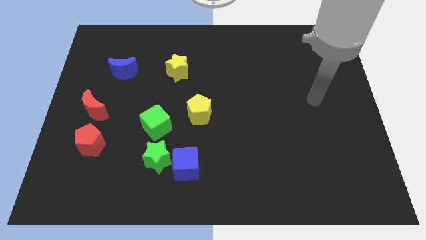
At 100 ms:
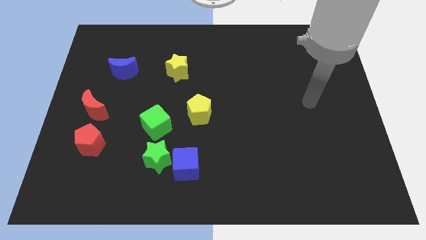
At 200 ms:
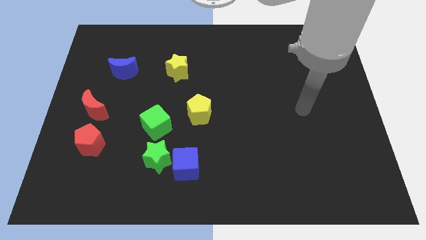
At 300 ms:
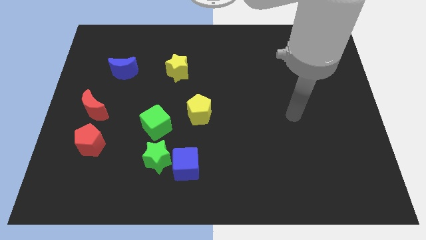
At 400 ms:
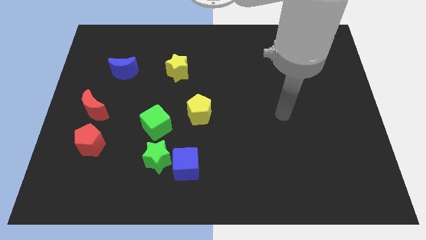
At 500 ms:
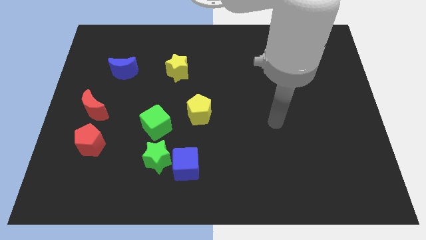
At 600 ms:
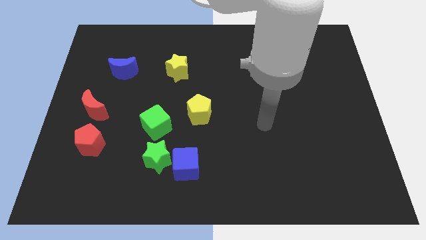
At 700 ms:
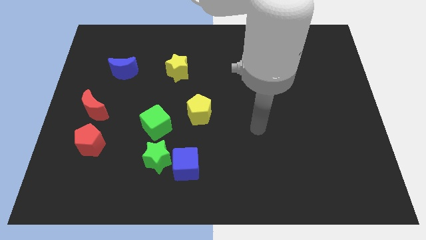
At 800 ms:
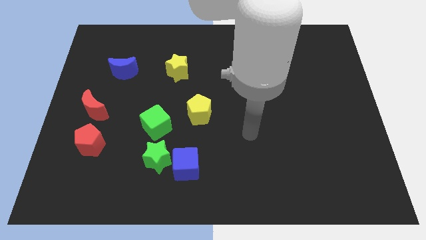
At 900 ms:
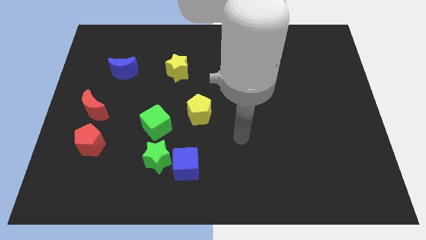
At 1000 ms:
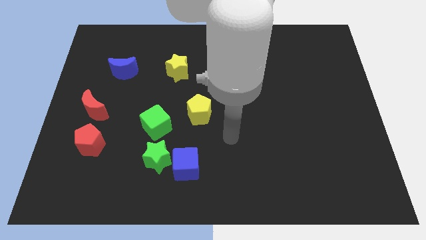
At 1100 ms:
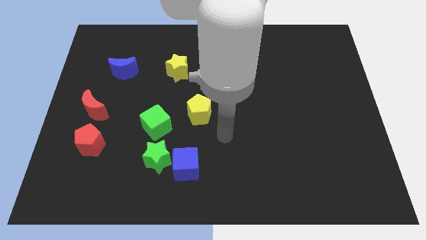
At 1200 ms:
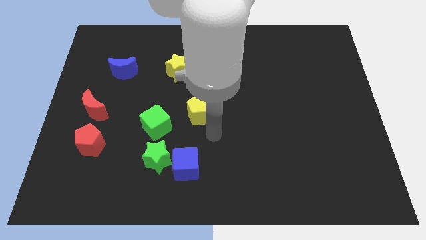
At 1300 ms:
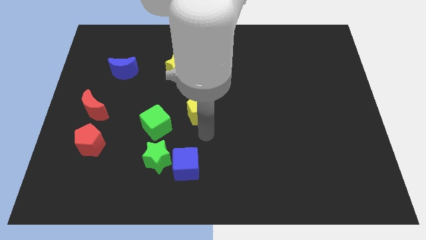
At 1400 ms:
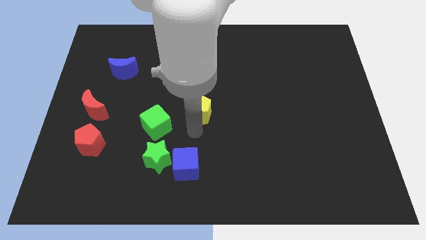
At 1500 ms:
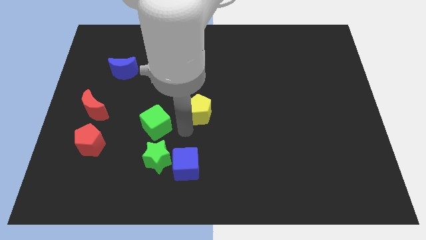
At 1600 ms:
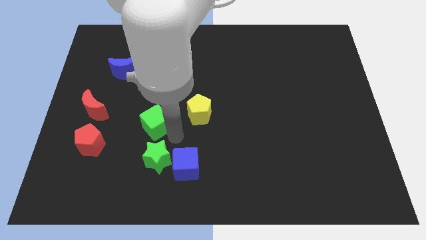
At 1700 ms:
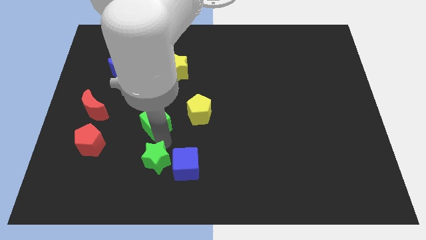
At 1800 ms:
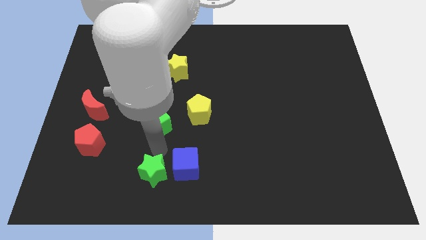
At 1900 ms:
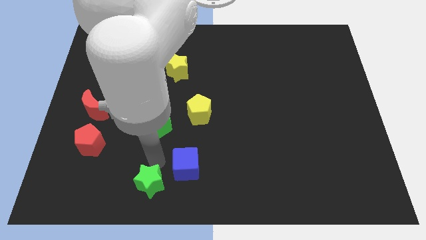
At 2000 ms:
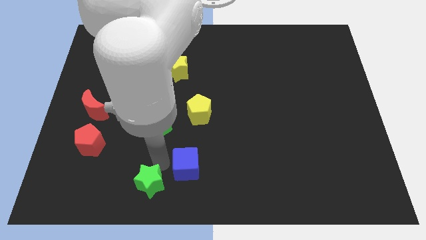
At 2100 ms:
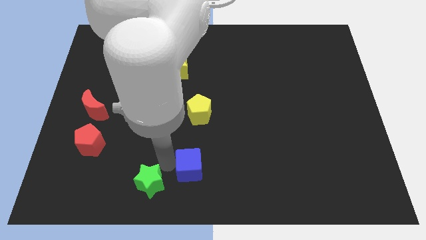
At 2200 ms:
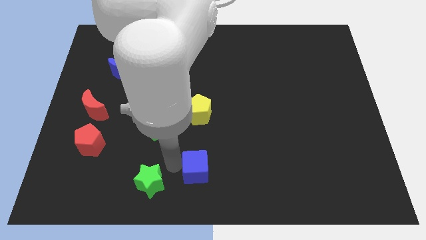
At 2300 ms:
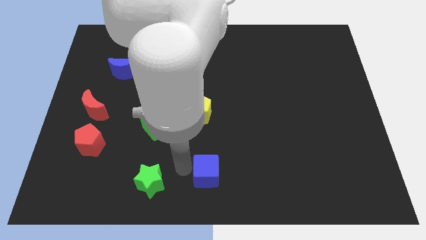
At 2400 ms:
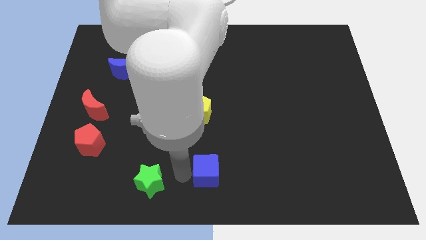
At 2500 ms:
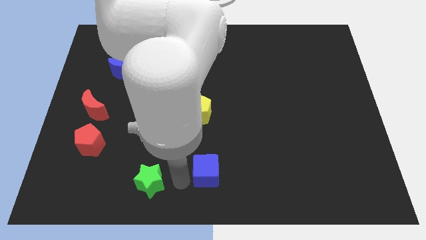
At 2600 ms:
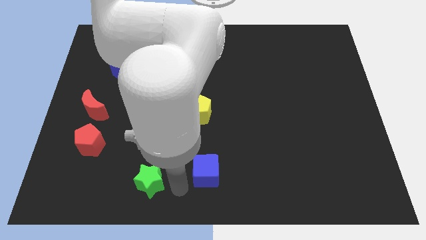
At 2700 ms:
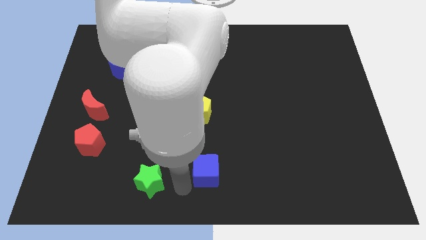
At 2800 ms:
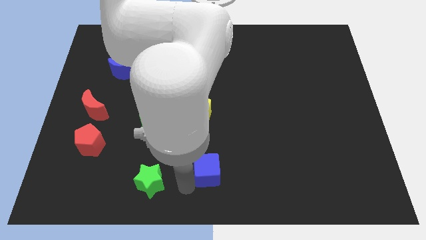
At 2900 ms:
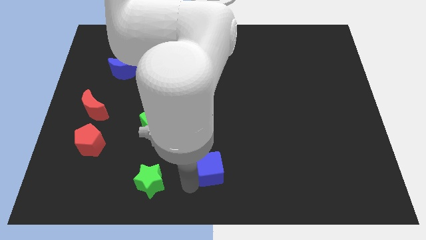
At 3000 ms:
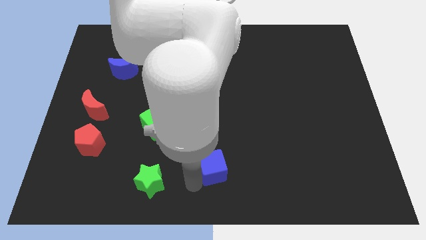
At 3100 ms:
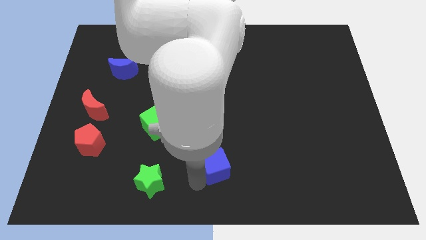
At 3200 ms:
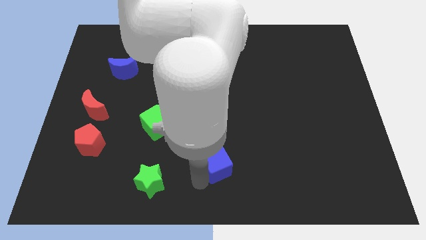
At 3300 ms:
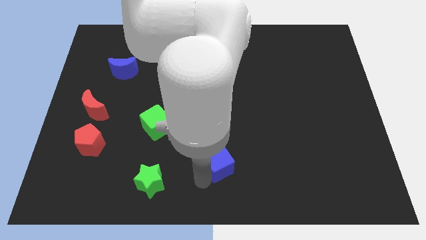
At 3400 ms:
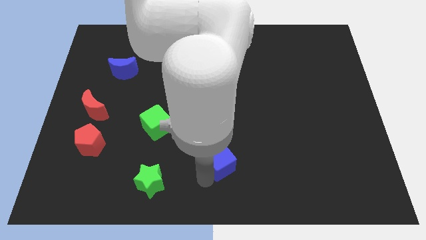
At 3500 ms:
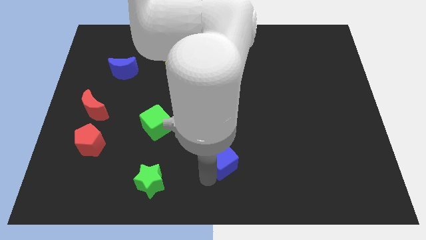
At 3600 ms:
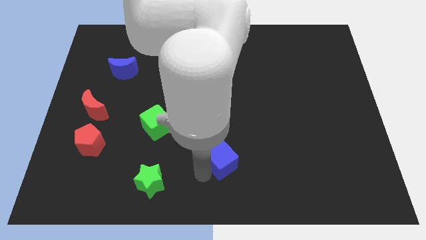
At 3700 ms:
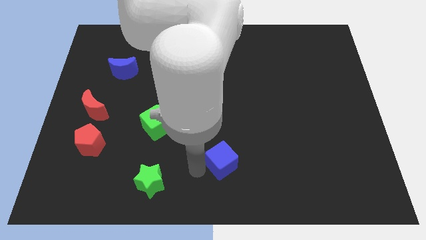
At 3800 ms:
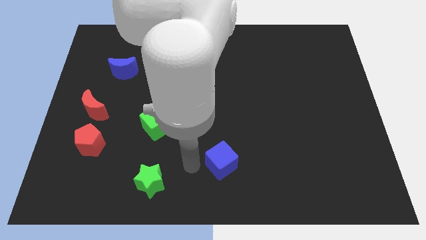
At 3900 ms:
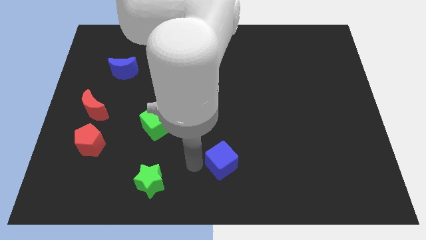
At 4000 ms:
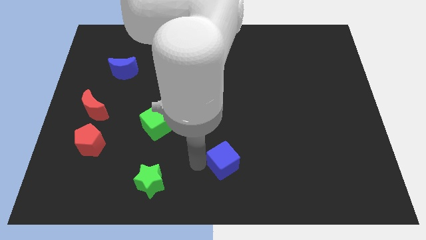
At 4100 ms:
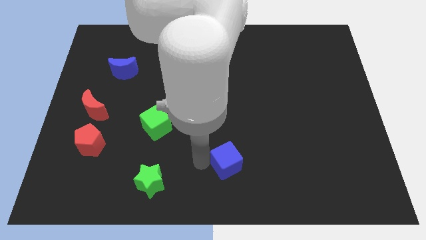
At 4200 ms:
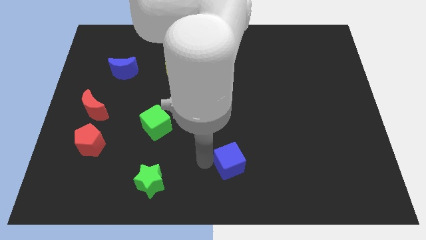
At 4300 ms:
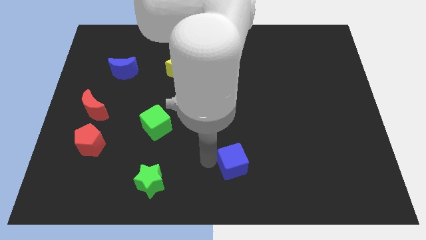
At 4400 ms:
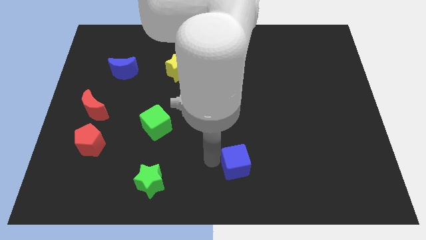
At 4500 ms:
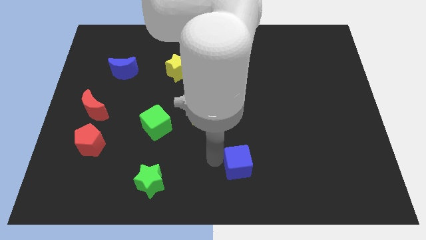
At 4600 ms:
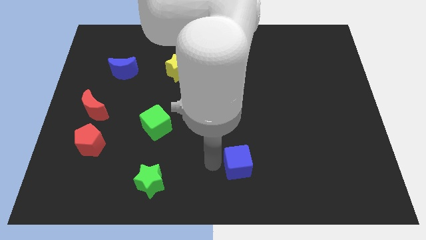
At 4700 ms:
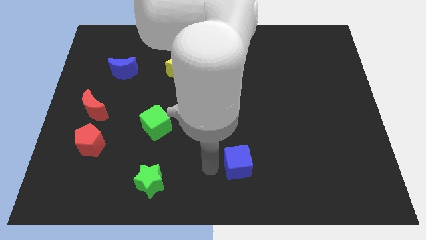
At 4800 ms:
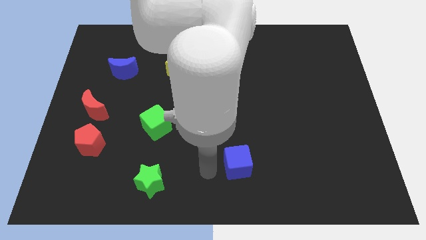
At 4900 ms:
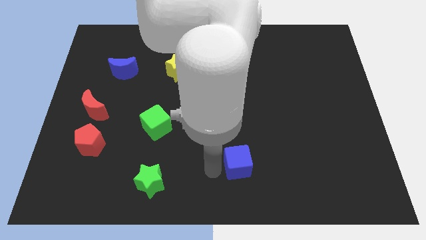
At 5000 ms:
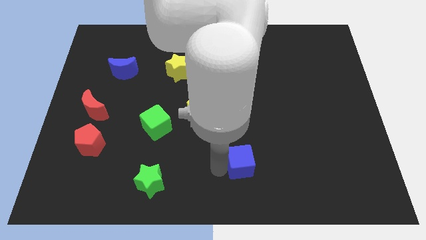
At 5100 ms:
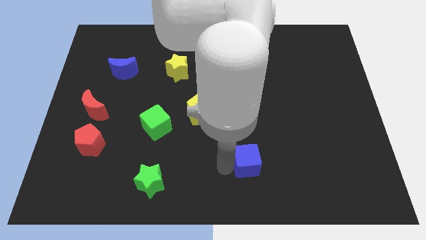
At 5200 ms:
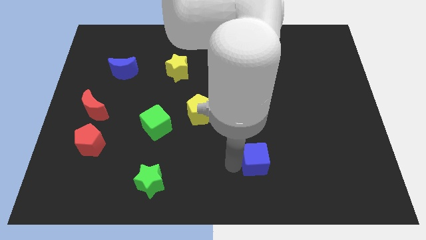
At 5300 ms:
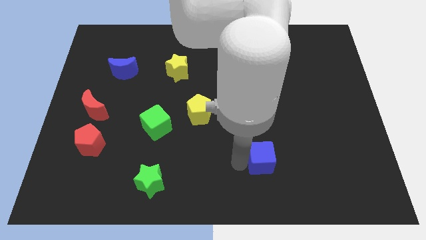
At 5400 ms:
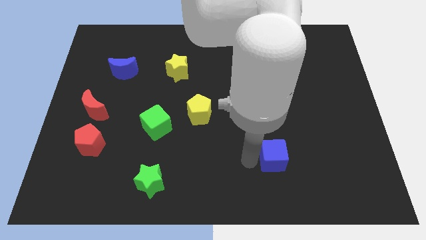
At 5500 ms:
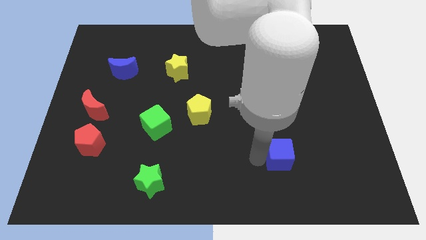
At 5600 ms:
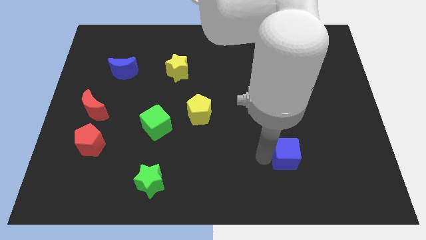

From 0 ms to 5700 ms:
move the blue cube to the right

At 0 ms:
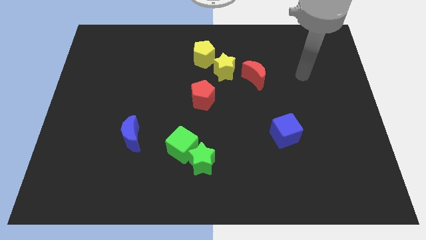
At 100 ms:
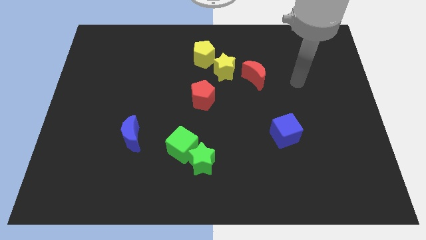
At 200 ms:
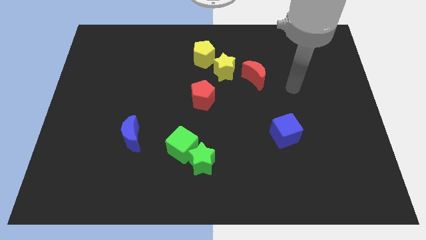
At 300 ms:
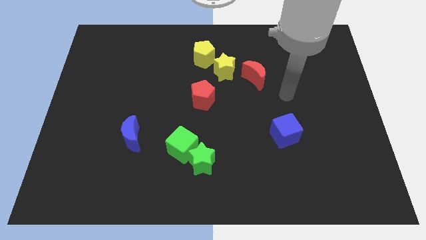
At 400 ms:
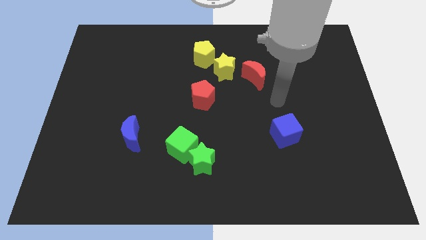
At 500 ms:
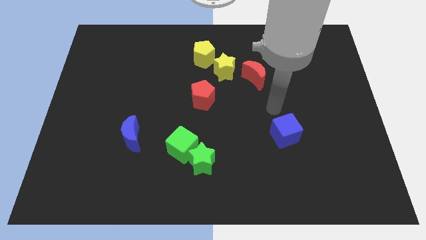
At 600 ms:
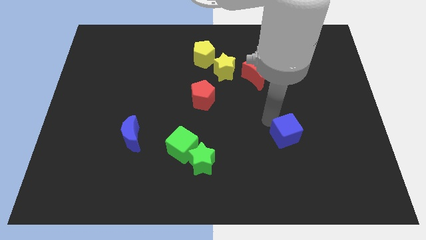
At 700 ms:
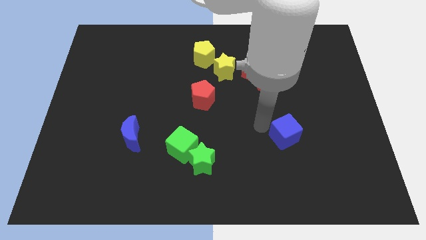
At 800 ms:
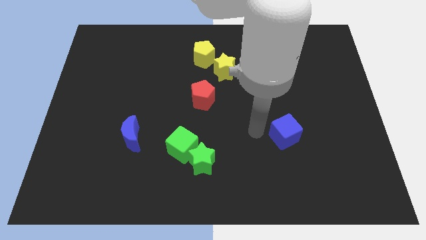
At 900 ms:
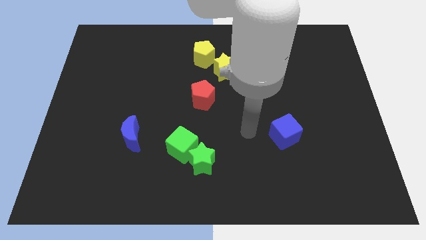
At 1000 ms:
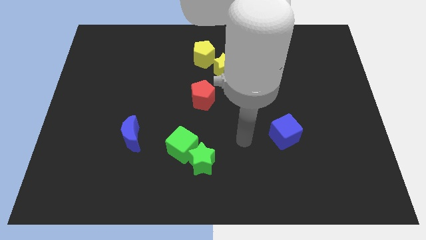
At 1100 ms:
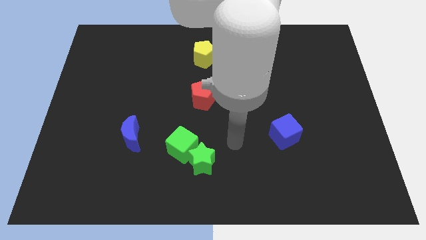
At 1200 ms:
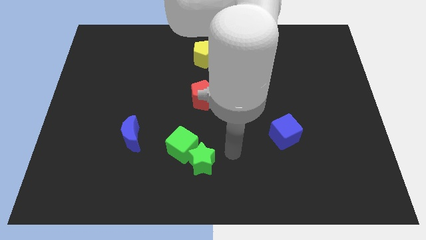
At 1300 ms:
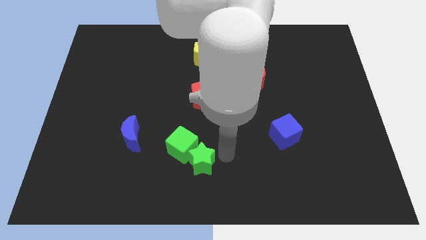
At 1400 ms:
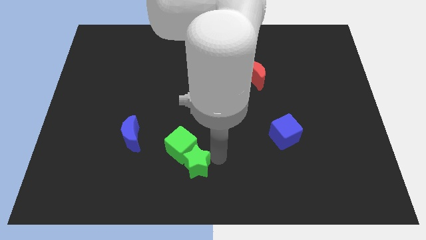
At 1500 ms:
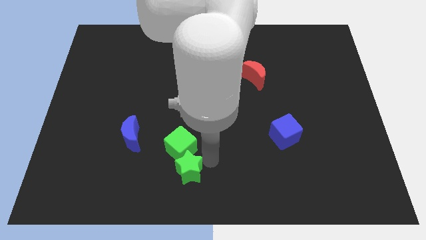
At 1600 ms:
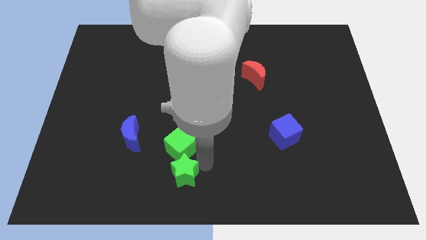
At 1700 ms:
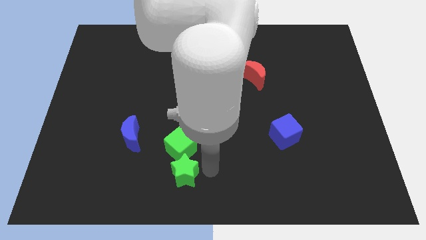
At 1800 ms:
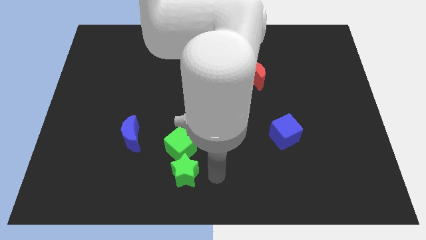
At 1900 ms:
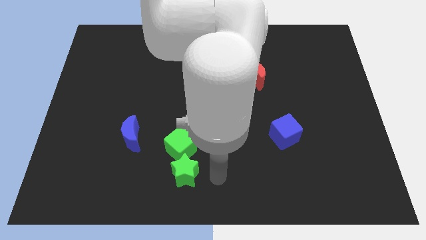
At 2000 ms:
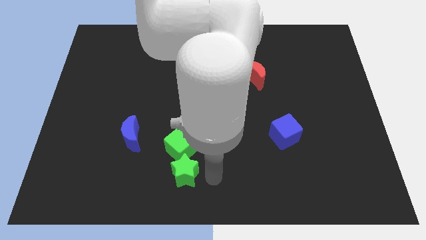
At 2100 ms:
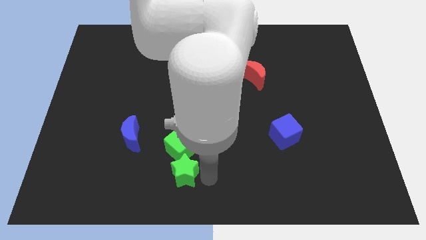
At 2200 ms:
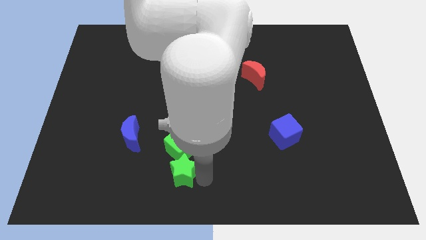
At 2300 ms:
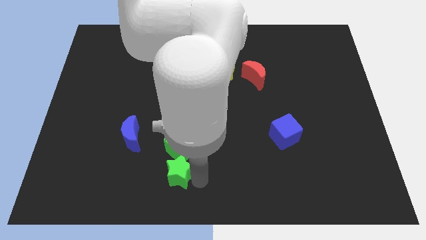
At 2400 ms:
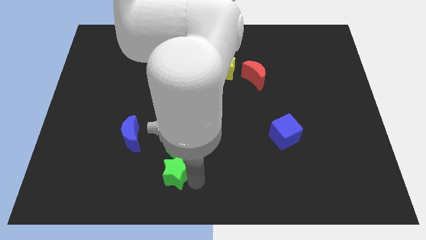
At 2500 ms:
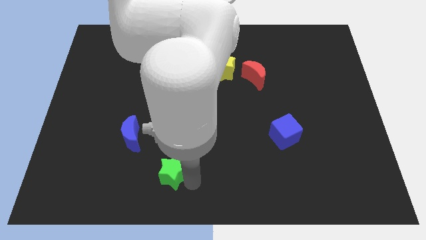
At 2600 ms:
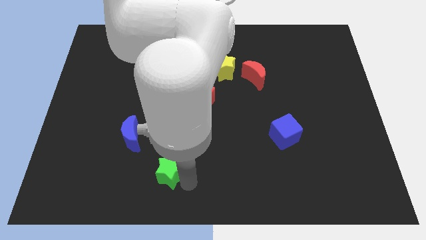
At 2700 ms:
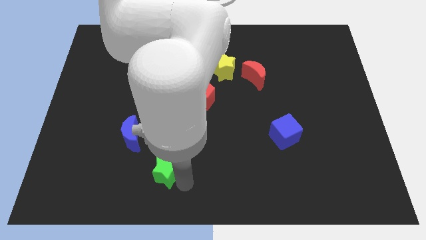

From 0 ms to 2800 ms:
slide the green star a little left

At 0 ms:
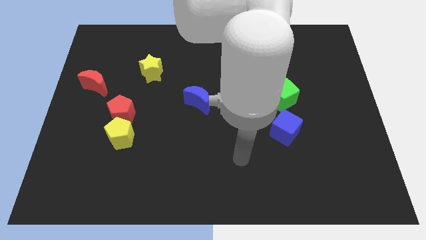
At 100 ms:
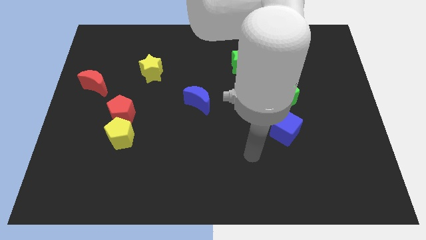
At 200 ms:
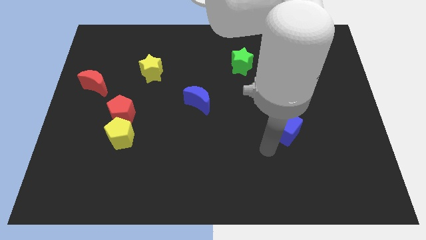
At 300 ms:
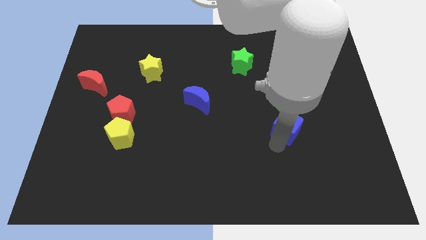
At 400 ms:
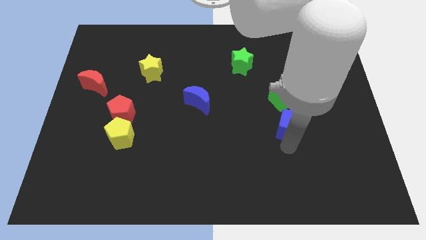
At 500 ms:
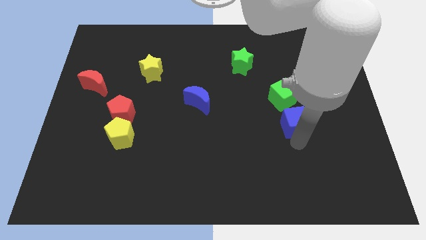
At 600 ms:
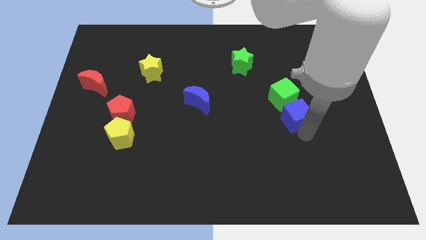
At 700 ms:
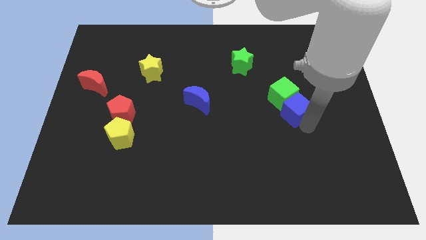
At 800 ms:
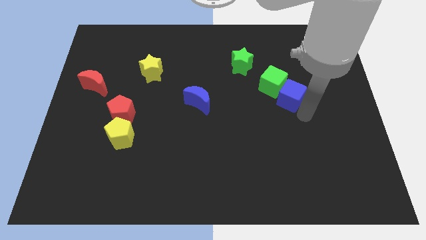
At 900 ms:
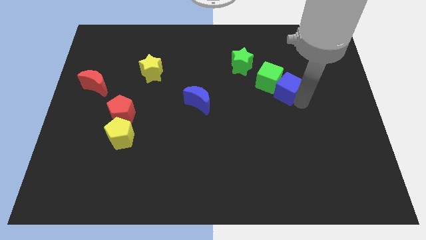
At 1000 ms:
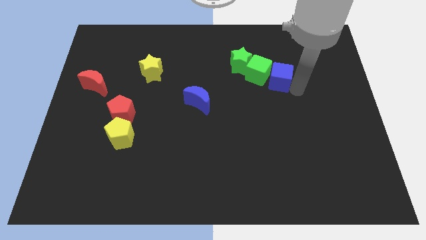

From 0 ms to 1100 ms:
move the green cube diagonally upwards and left slightly
